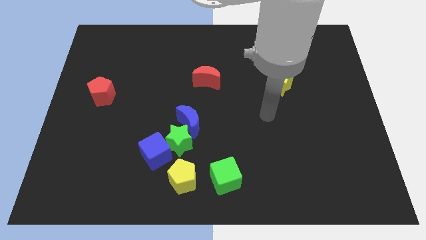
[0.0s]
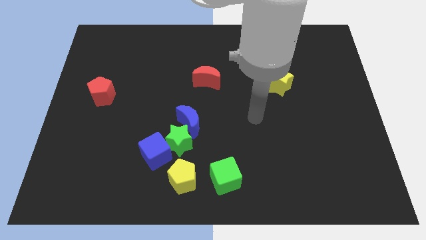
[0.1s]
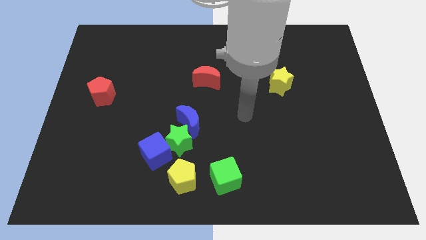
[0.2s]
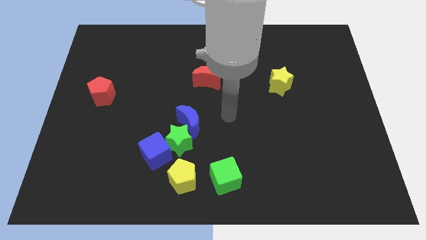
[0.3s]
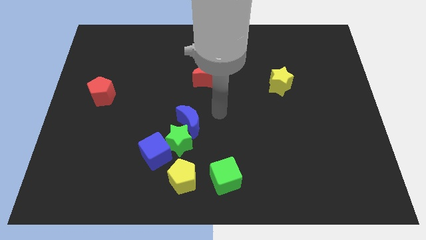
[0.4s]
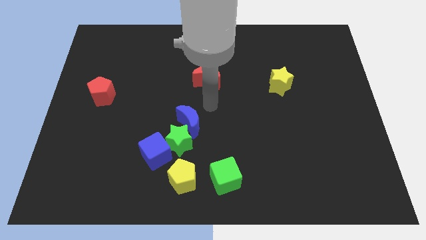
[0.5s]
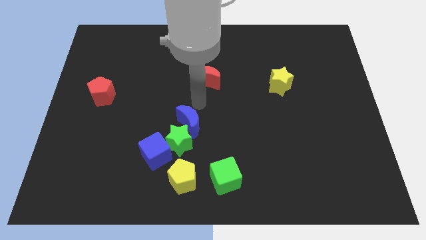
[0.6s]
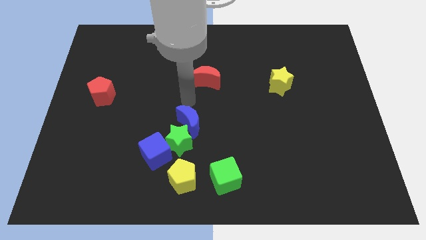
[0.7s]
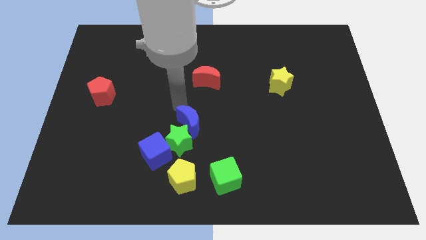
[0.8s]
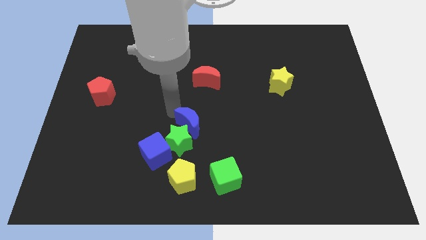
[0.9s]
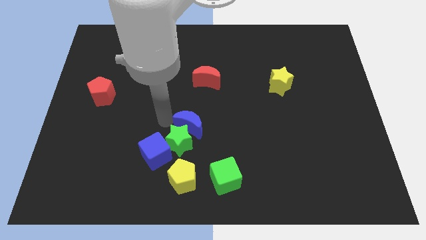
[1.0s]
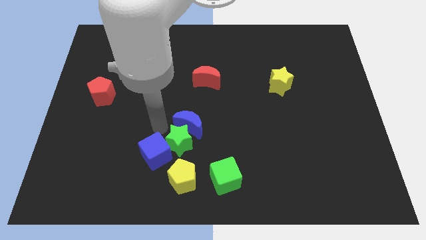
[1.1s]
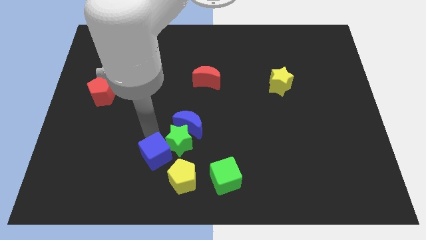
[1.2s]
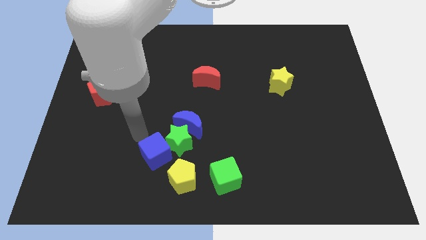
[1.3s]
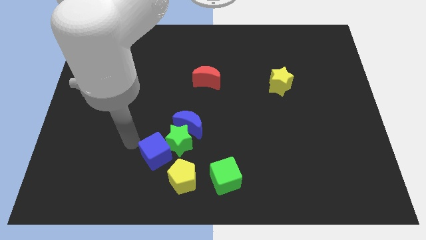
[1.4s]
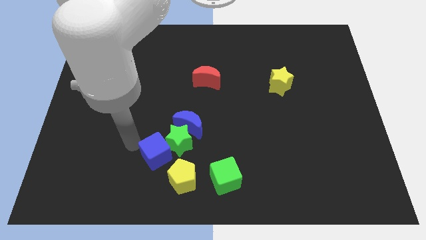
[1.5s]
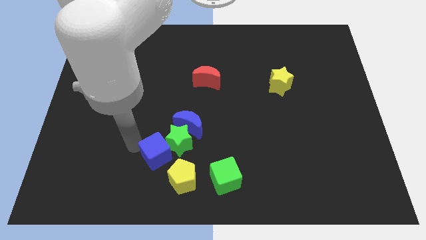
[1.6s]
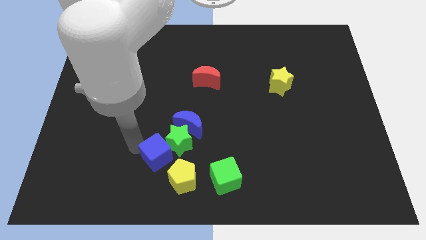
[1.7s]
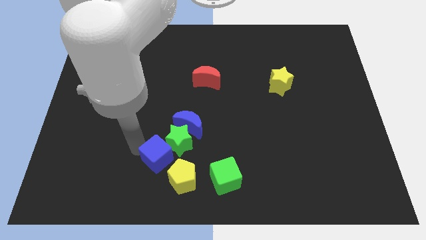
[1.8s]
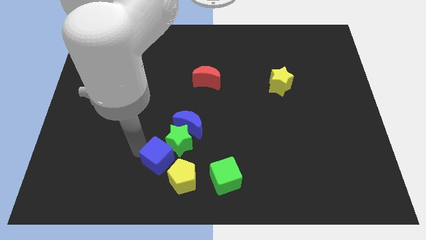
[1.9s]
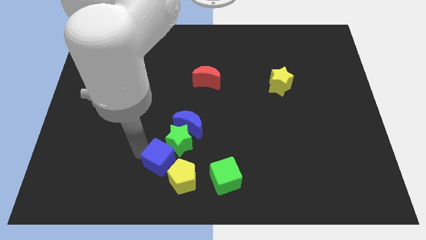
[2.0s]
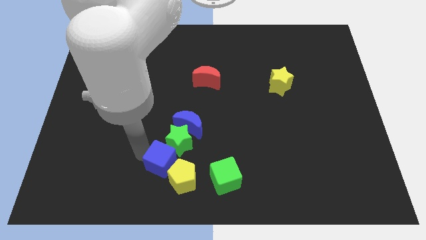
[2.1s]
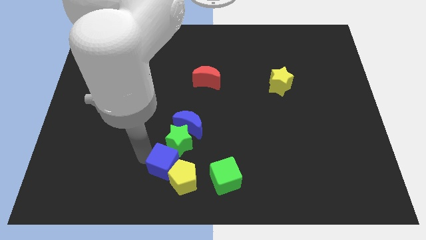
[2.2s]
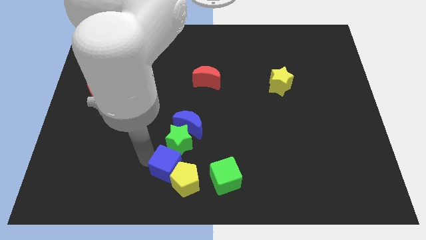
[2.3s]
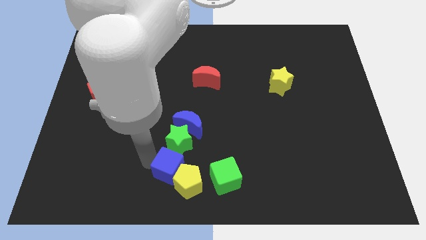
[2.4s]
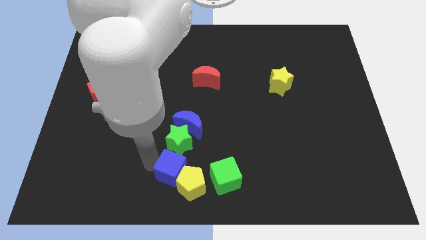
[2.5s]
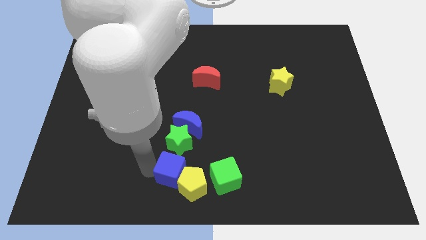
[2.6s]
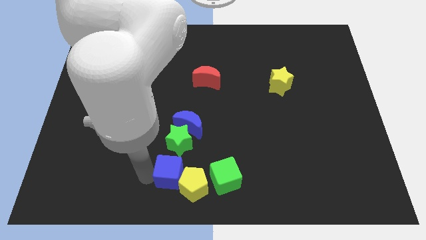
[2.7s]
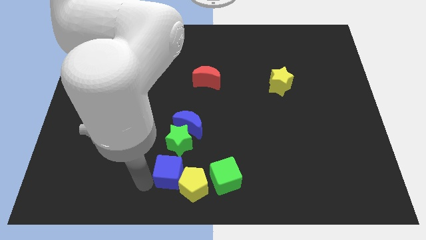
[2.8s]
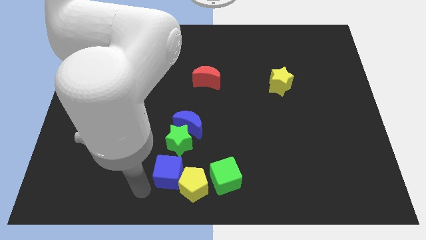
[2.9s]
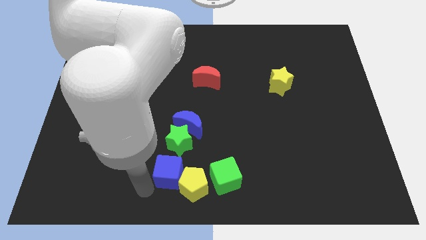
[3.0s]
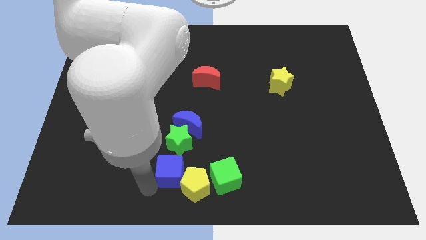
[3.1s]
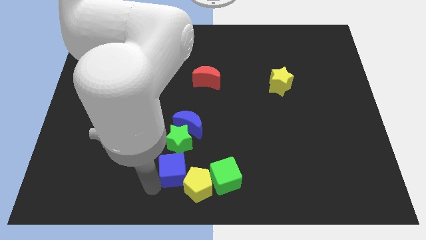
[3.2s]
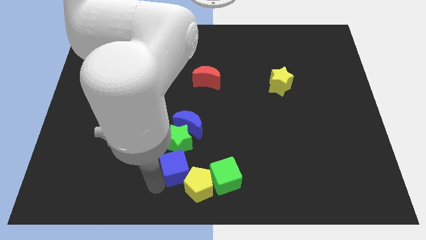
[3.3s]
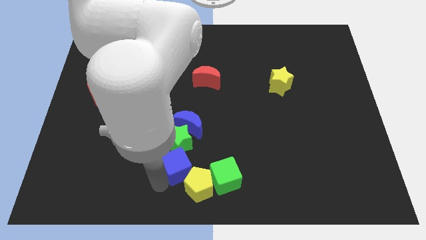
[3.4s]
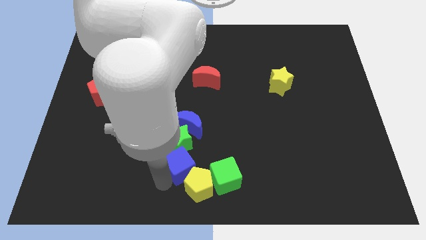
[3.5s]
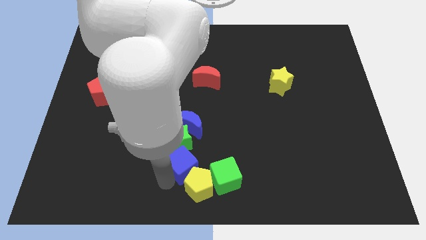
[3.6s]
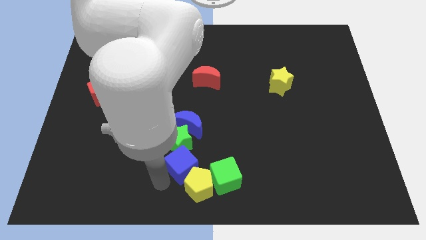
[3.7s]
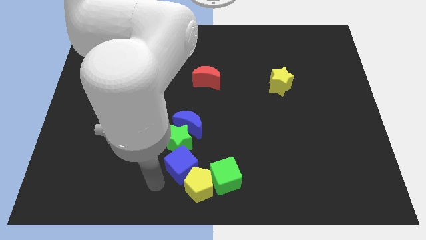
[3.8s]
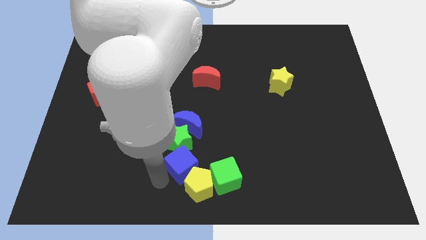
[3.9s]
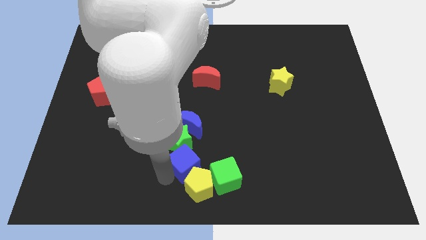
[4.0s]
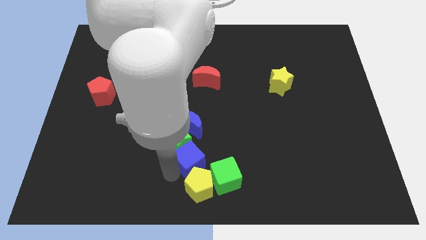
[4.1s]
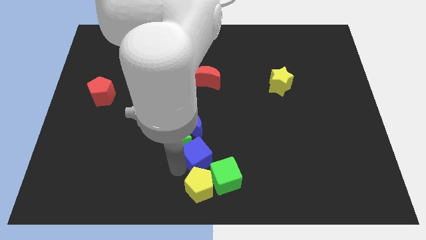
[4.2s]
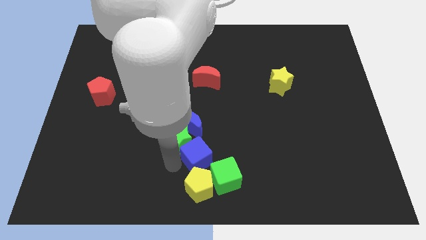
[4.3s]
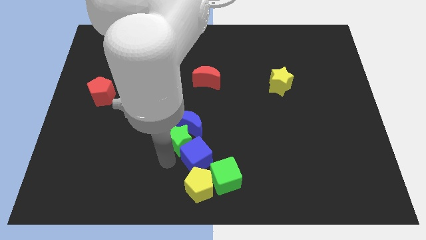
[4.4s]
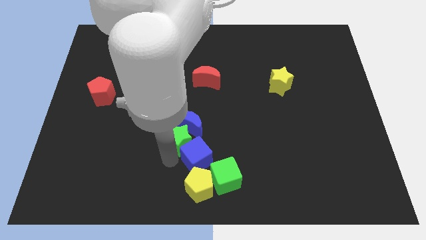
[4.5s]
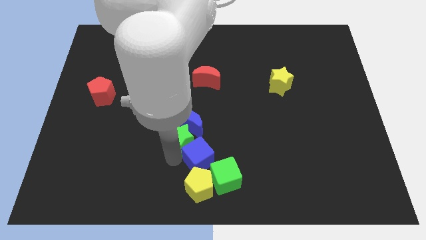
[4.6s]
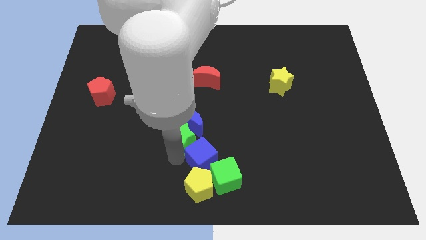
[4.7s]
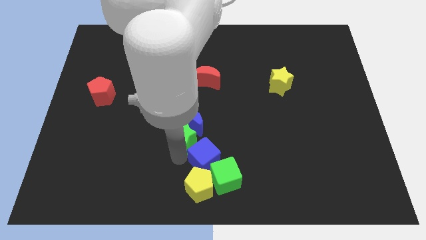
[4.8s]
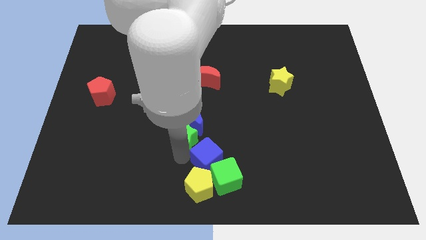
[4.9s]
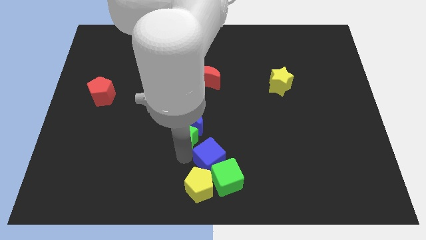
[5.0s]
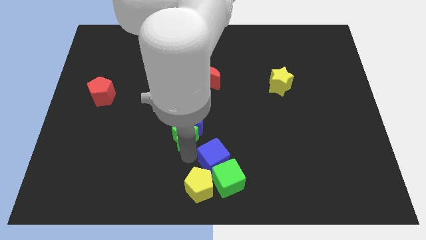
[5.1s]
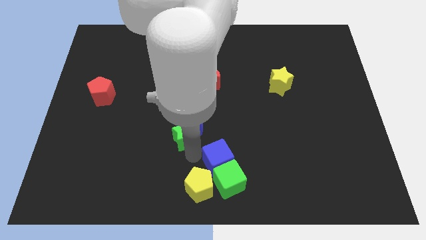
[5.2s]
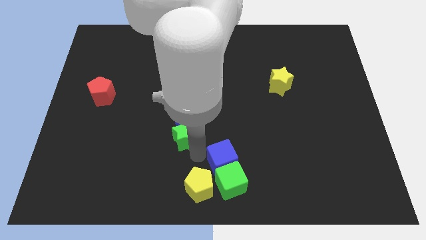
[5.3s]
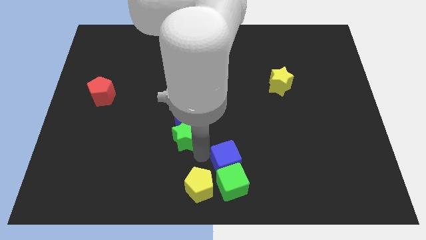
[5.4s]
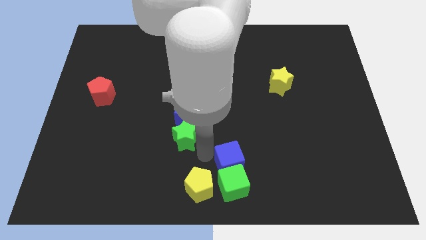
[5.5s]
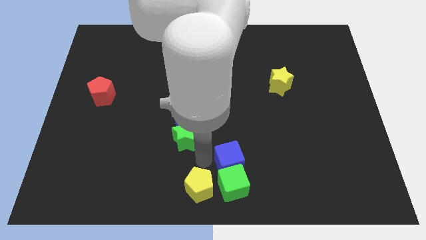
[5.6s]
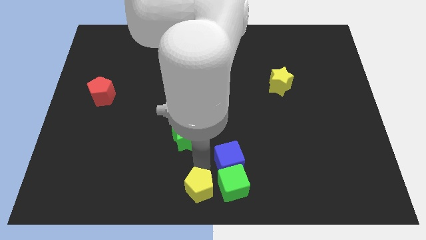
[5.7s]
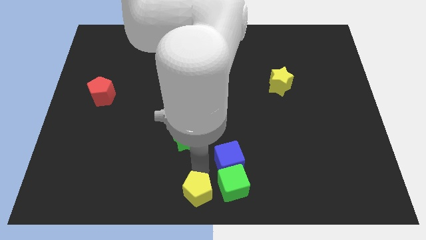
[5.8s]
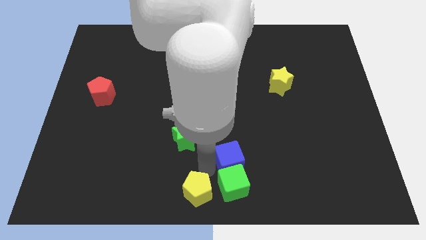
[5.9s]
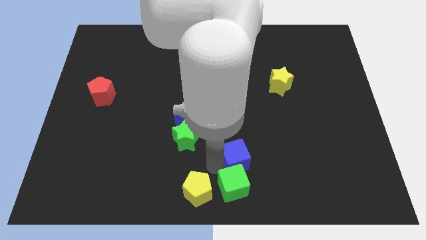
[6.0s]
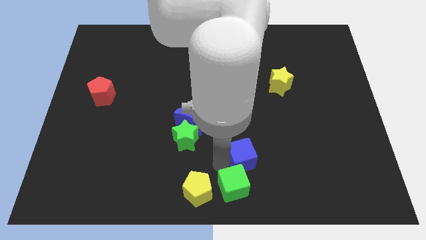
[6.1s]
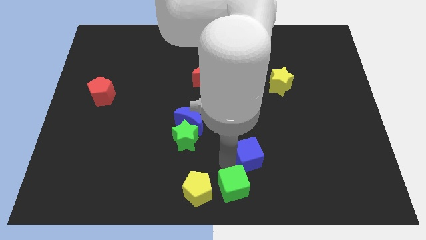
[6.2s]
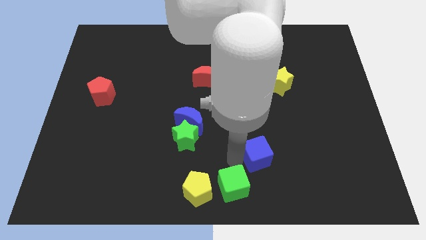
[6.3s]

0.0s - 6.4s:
slide the blue cube to the right

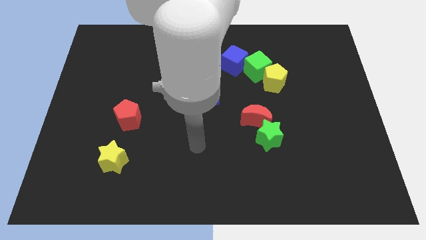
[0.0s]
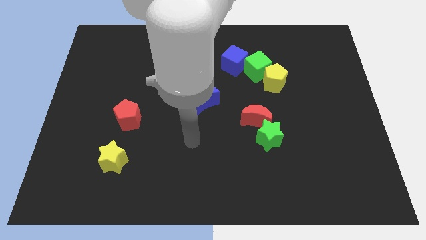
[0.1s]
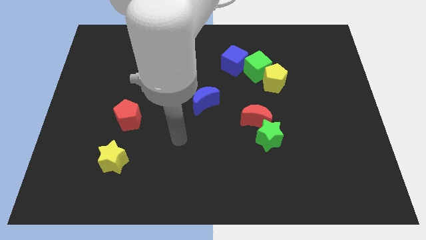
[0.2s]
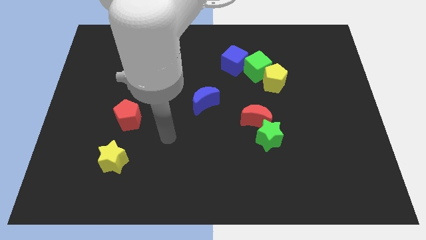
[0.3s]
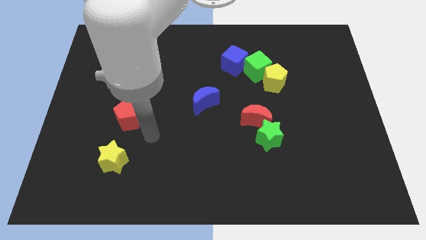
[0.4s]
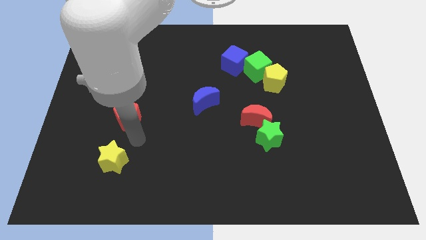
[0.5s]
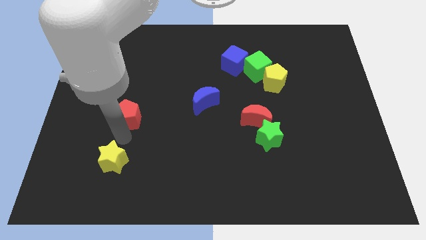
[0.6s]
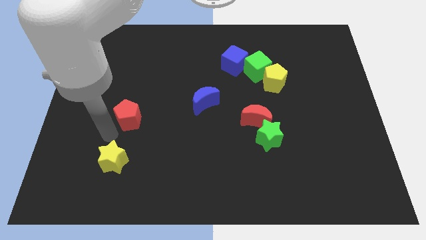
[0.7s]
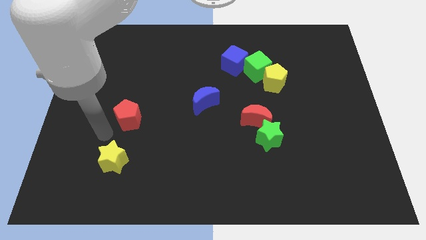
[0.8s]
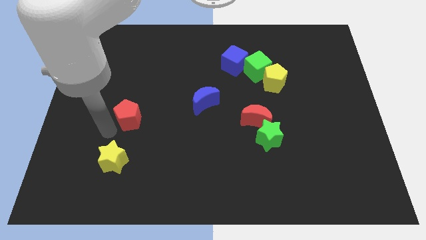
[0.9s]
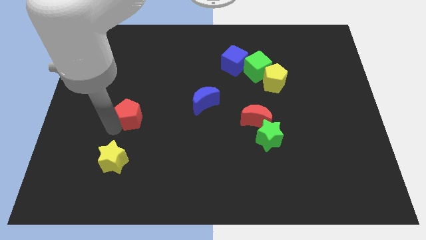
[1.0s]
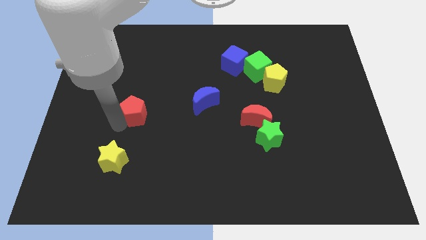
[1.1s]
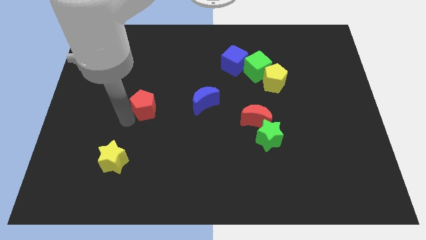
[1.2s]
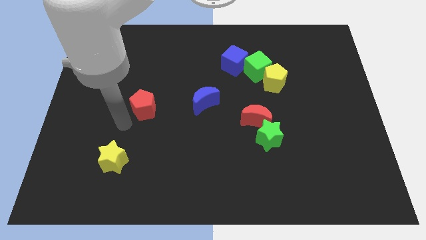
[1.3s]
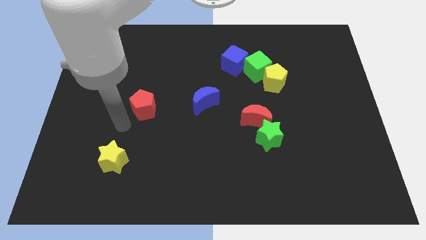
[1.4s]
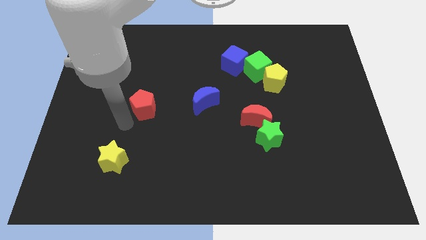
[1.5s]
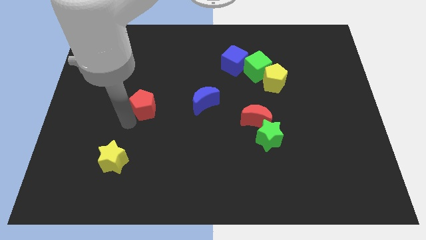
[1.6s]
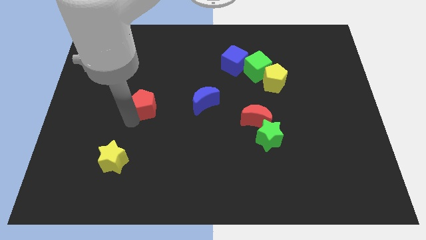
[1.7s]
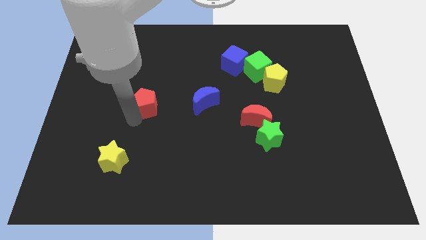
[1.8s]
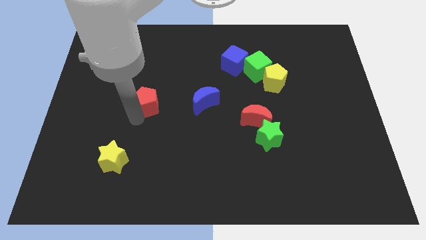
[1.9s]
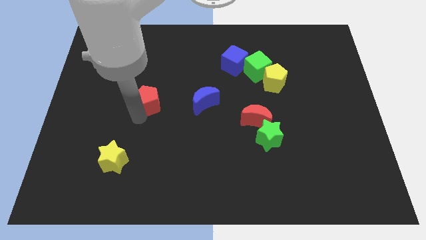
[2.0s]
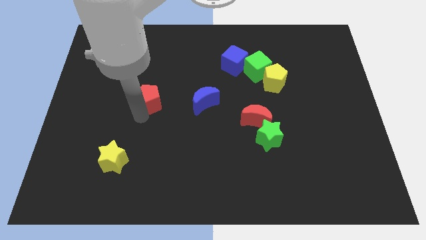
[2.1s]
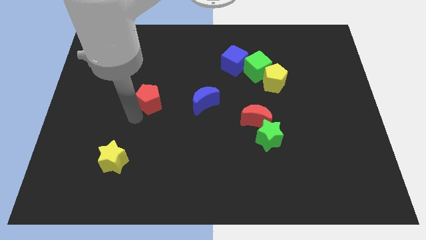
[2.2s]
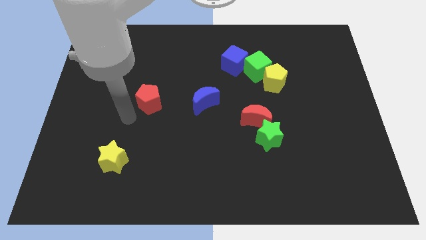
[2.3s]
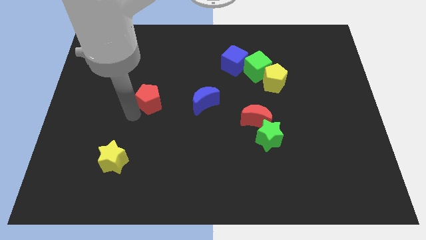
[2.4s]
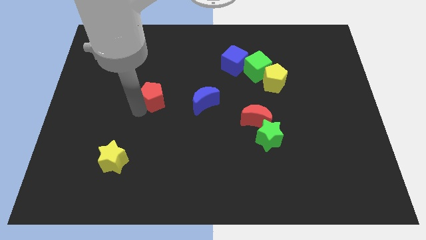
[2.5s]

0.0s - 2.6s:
push the red pentagon a little upwards and right
